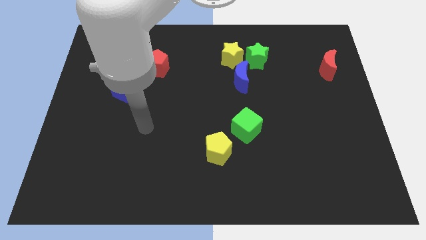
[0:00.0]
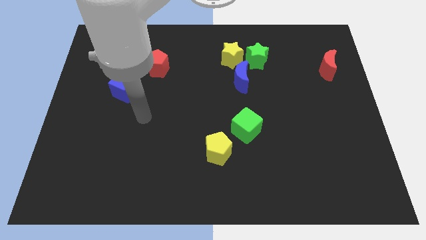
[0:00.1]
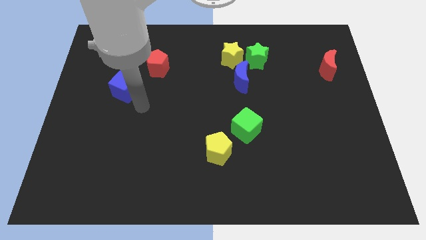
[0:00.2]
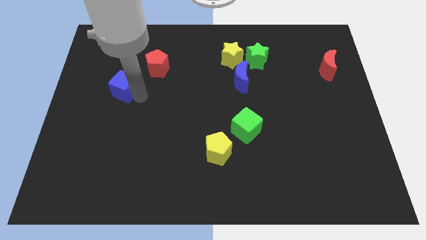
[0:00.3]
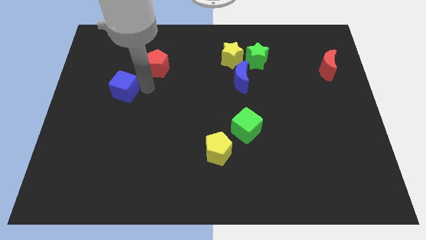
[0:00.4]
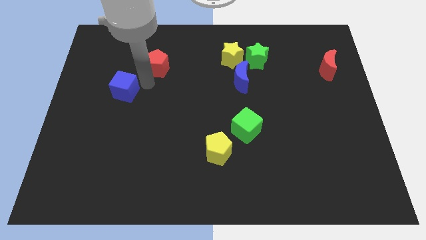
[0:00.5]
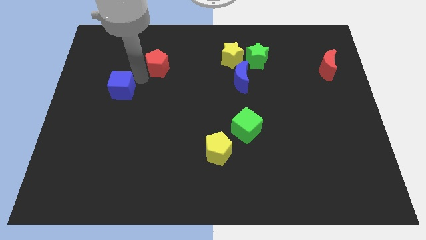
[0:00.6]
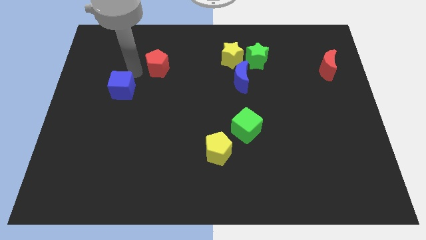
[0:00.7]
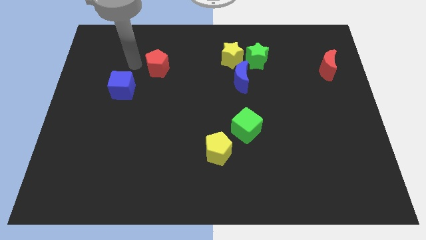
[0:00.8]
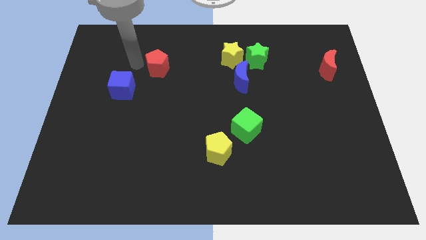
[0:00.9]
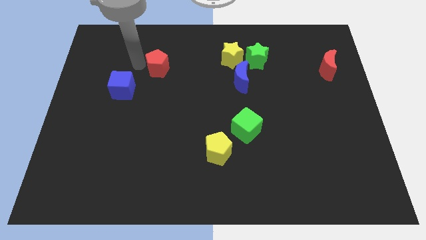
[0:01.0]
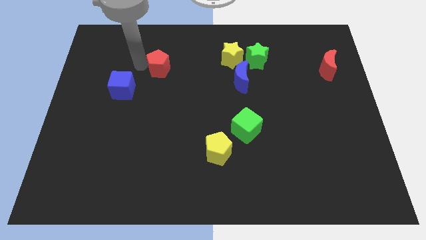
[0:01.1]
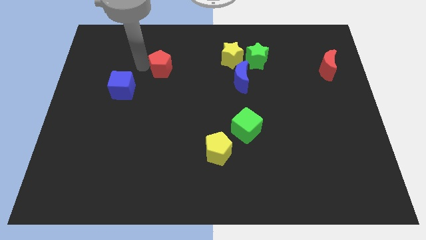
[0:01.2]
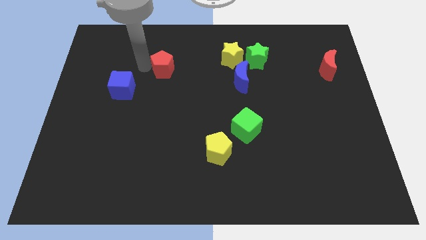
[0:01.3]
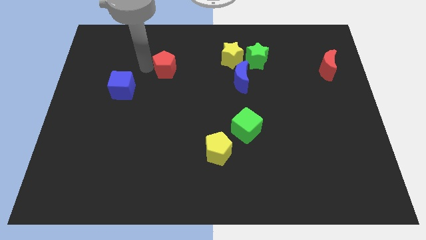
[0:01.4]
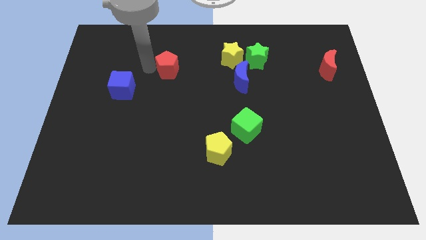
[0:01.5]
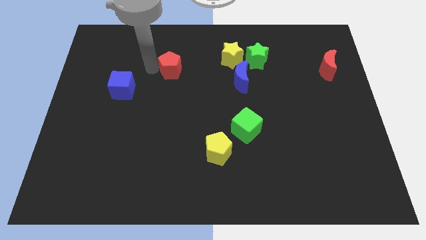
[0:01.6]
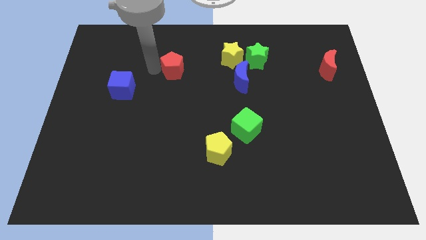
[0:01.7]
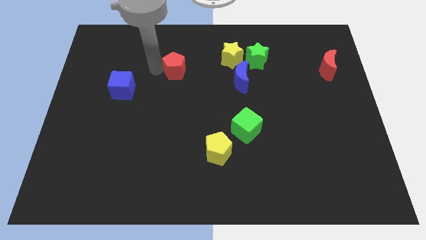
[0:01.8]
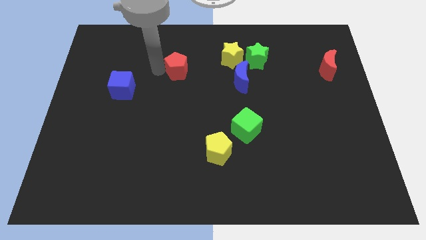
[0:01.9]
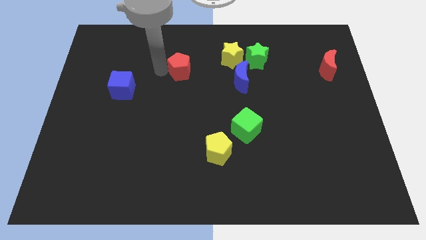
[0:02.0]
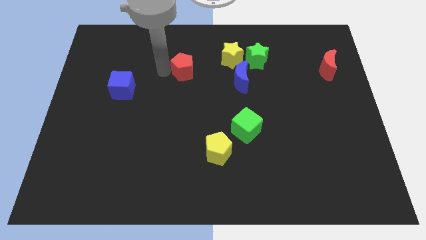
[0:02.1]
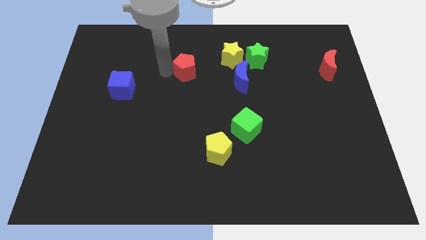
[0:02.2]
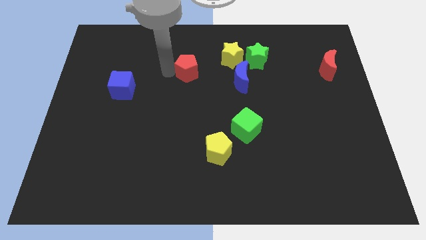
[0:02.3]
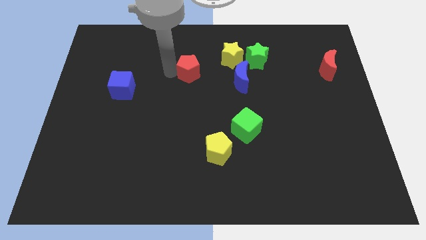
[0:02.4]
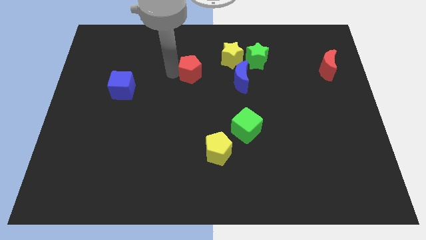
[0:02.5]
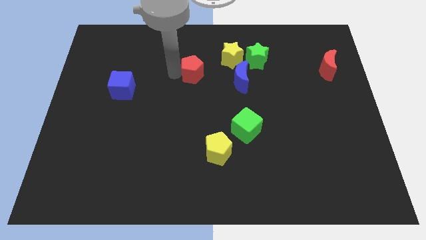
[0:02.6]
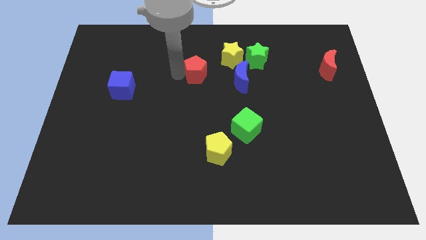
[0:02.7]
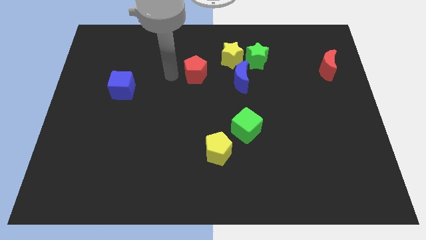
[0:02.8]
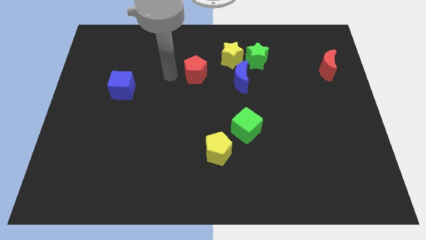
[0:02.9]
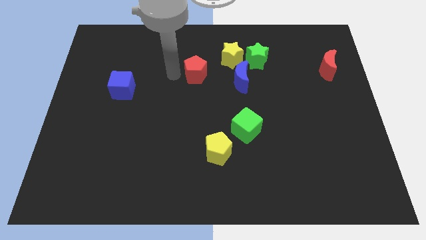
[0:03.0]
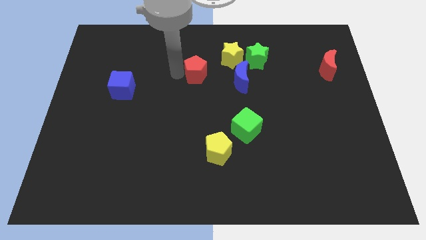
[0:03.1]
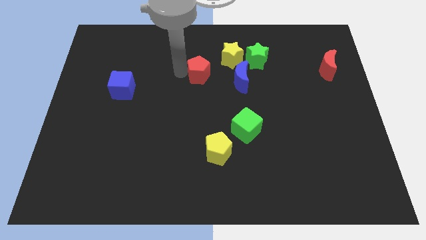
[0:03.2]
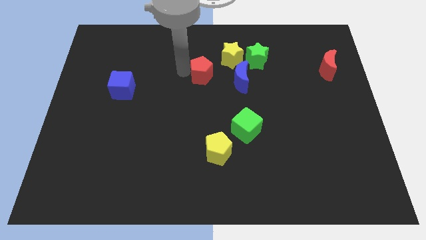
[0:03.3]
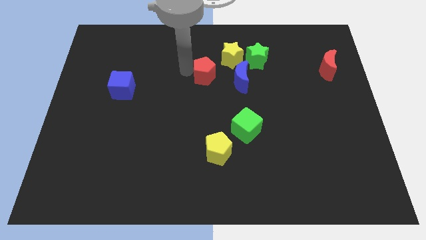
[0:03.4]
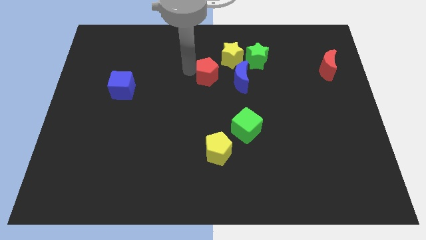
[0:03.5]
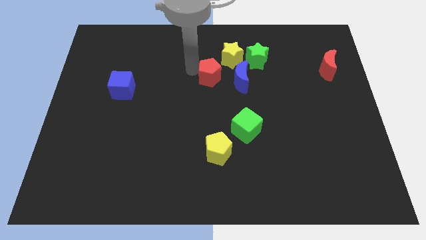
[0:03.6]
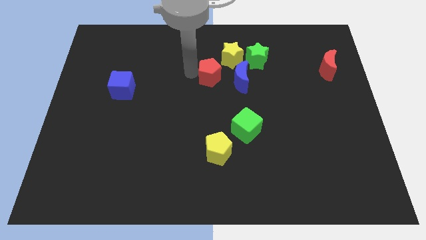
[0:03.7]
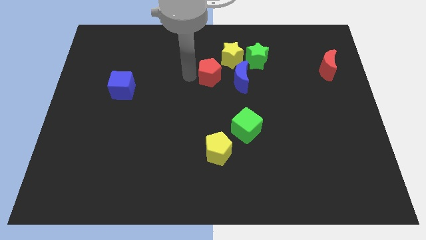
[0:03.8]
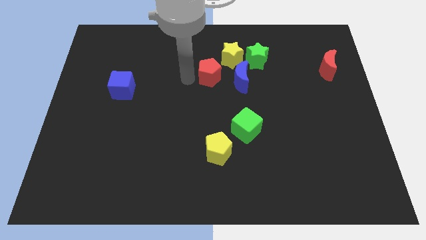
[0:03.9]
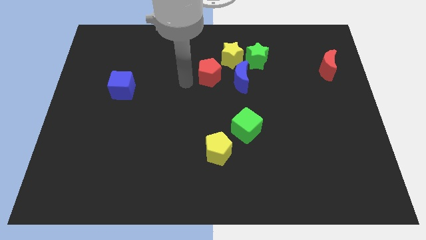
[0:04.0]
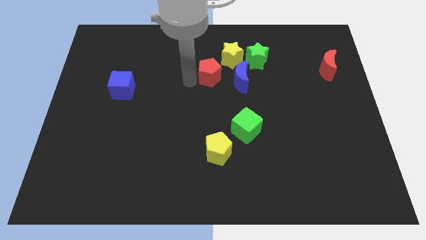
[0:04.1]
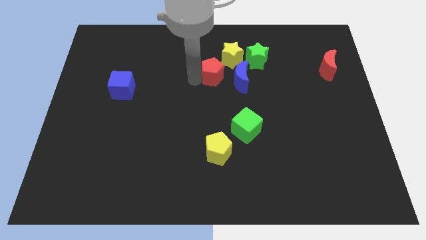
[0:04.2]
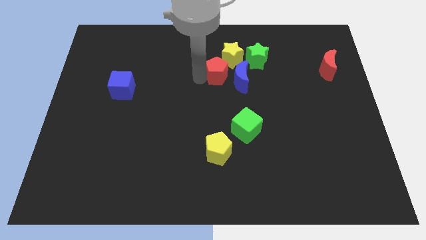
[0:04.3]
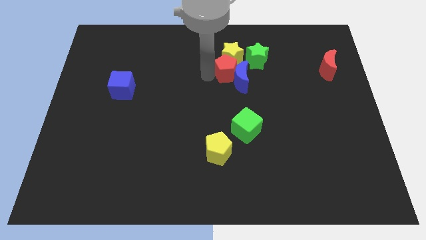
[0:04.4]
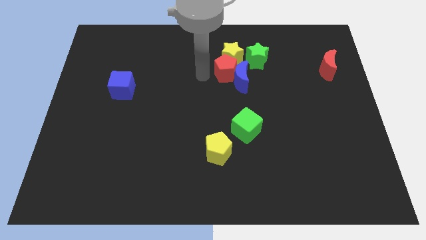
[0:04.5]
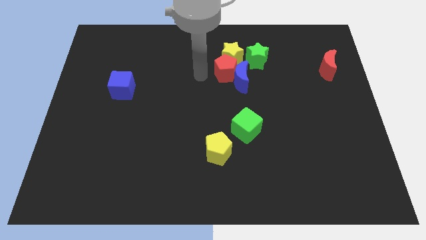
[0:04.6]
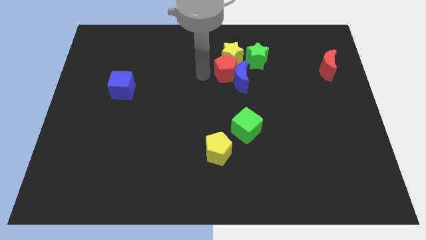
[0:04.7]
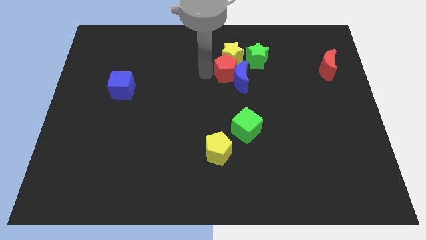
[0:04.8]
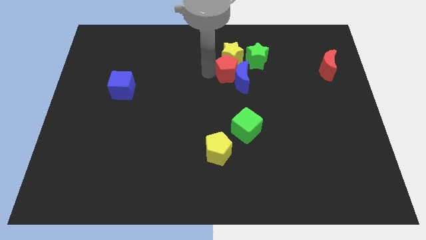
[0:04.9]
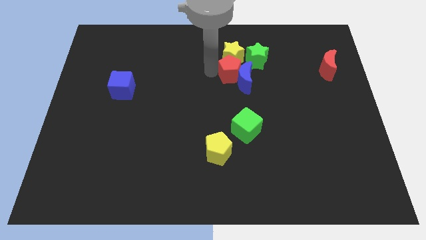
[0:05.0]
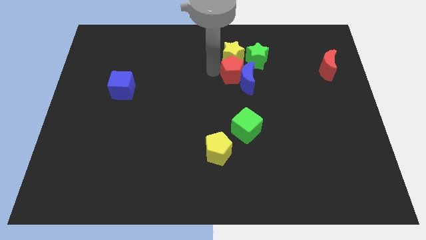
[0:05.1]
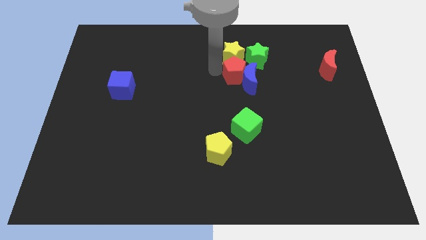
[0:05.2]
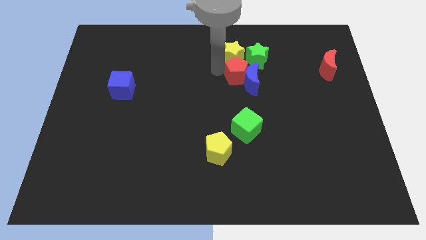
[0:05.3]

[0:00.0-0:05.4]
move the red pentagon right

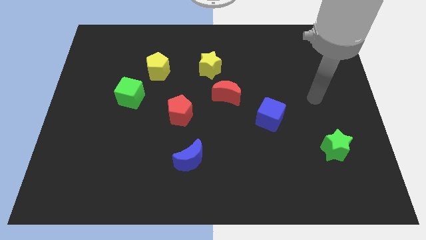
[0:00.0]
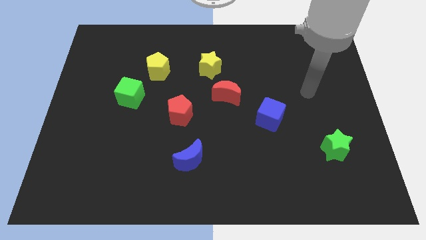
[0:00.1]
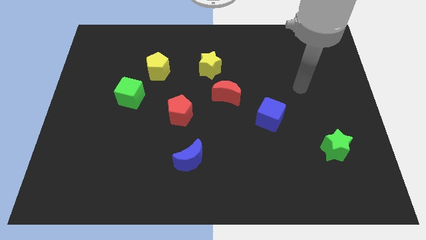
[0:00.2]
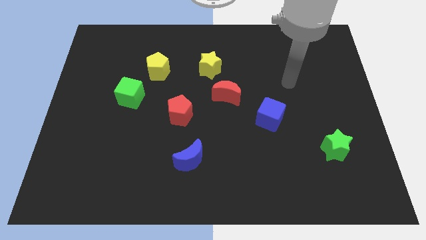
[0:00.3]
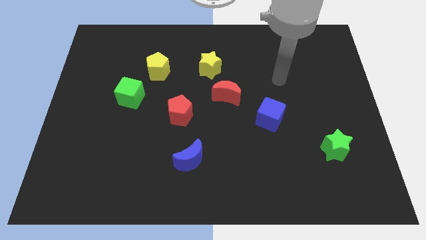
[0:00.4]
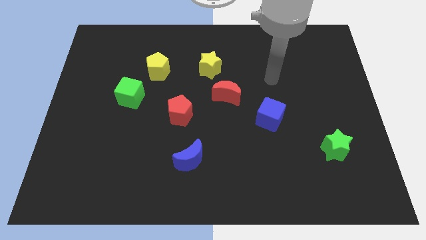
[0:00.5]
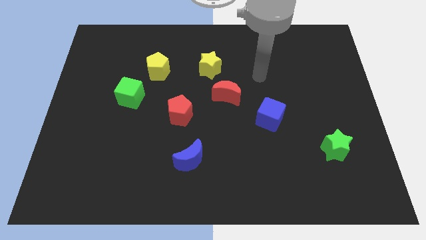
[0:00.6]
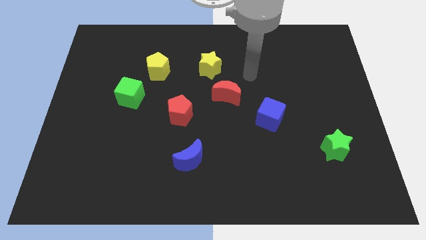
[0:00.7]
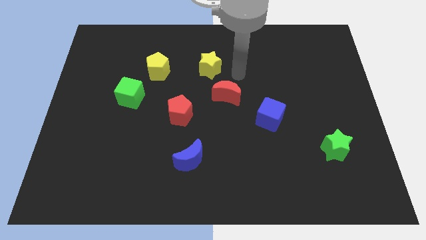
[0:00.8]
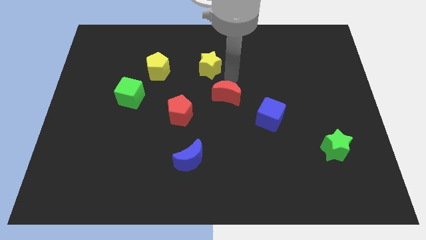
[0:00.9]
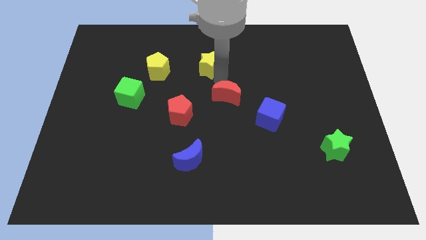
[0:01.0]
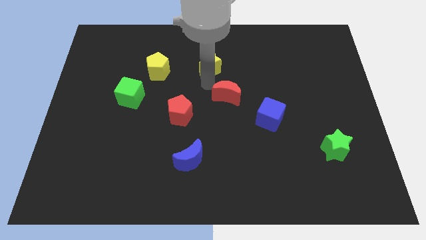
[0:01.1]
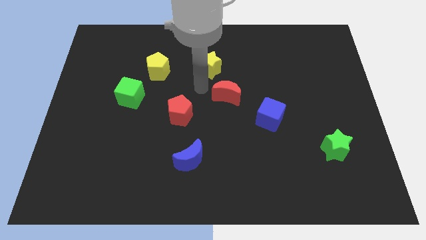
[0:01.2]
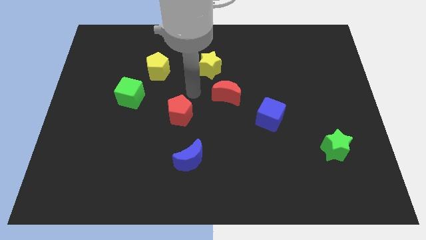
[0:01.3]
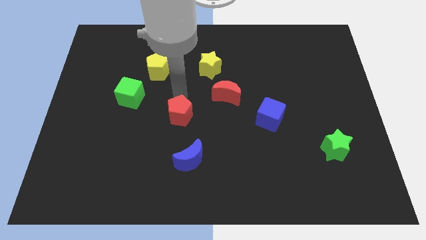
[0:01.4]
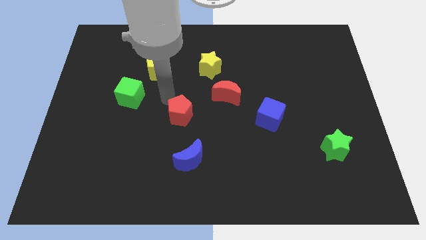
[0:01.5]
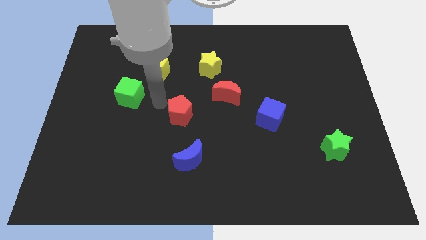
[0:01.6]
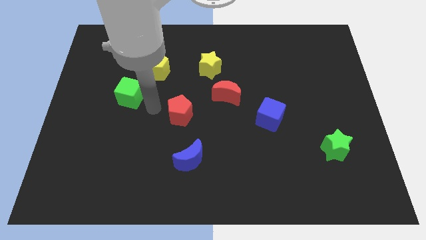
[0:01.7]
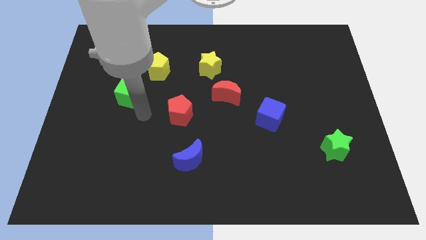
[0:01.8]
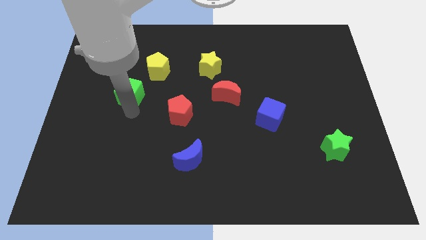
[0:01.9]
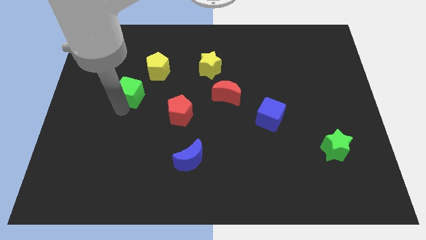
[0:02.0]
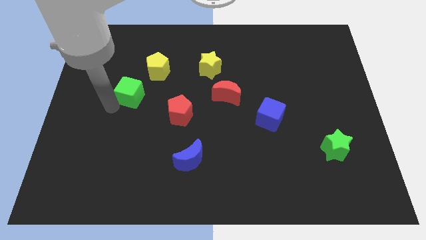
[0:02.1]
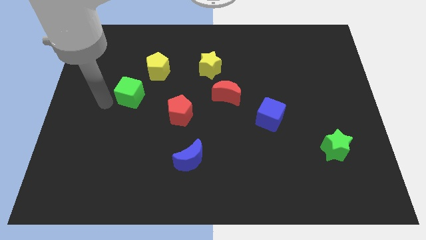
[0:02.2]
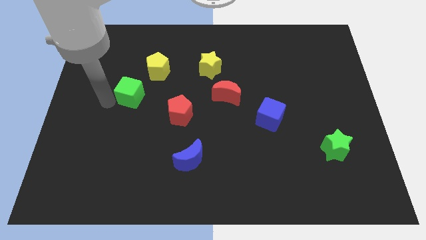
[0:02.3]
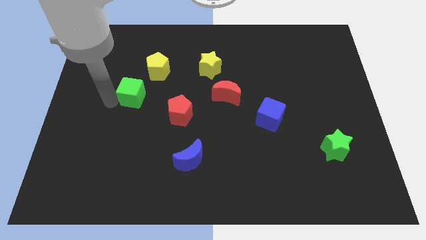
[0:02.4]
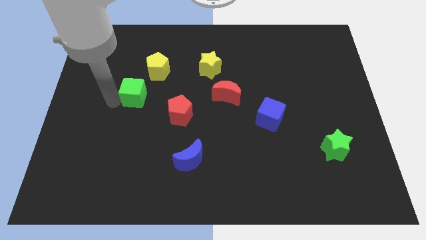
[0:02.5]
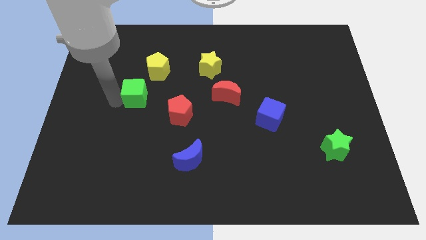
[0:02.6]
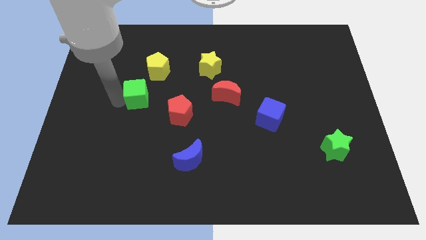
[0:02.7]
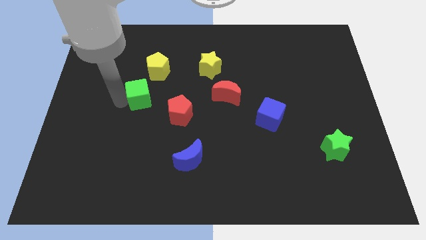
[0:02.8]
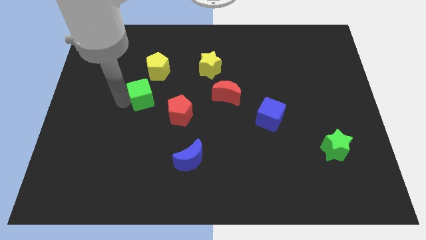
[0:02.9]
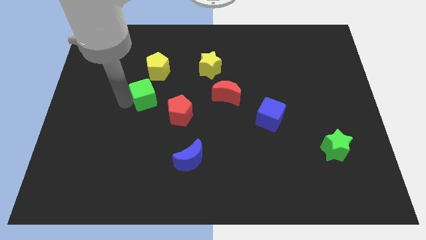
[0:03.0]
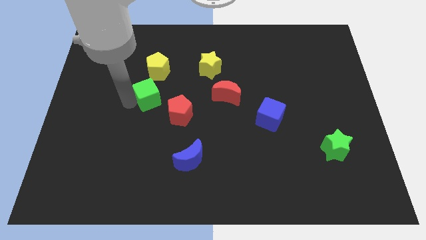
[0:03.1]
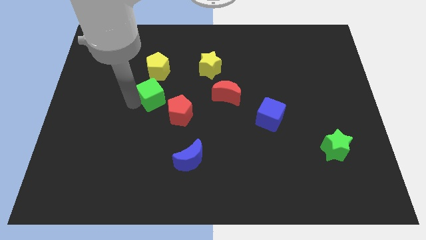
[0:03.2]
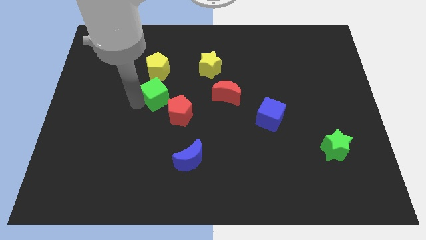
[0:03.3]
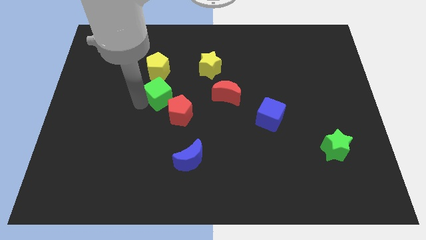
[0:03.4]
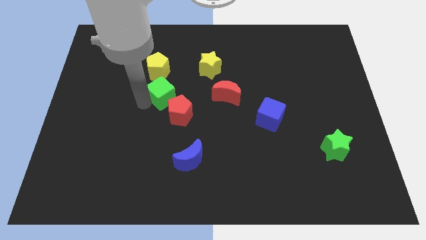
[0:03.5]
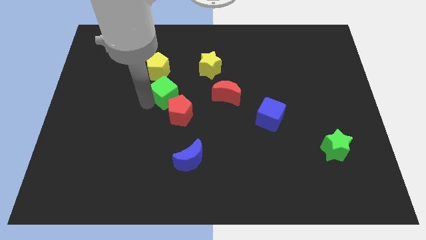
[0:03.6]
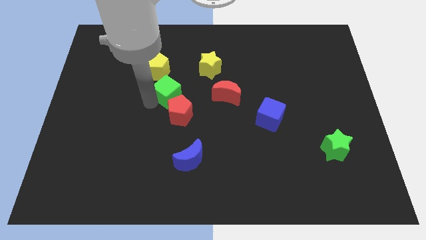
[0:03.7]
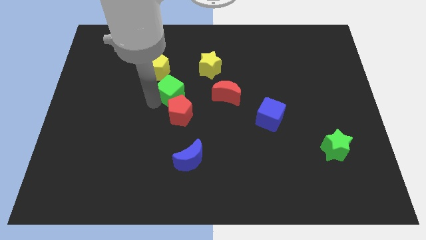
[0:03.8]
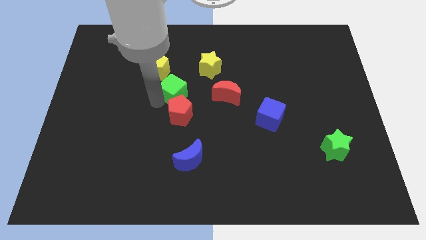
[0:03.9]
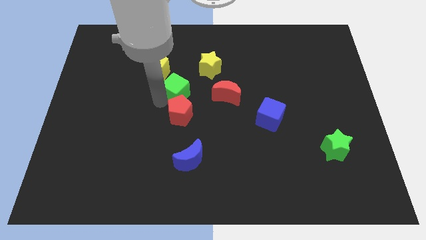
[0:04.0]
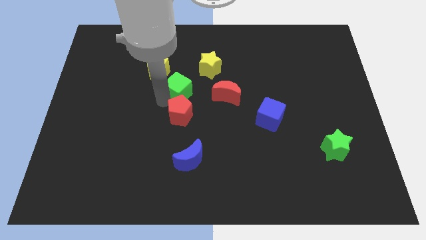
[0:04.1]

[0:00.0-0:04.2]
slightly push the green cube upwards and right diagonally
